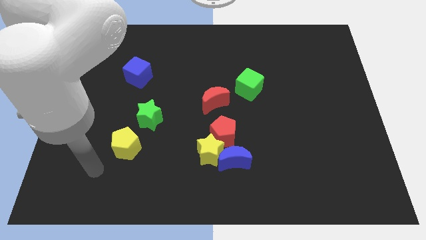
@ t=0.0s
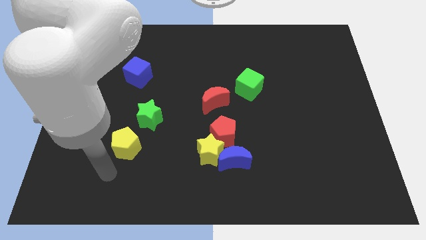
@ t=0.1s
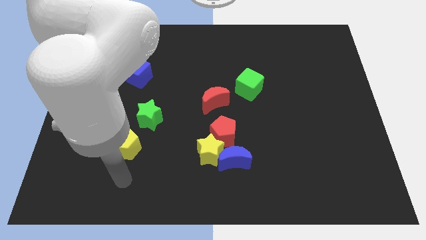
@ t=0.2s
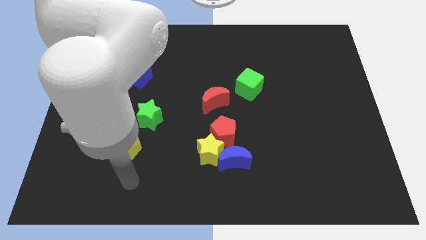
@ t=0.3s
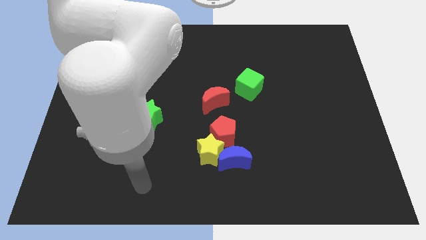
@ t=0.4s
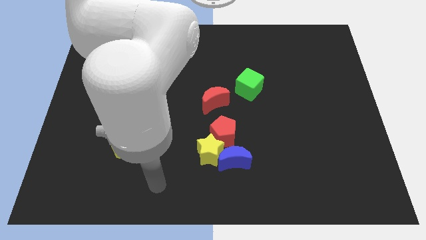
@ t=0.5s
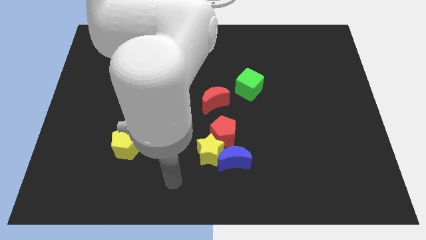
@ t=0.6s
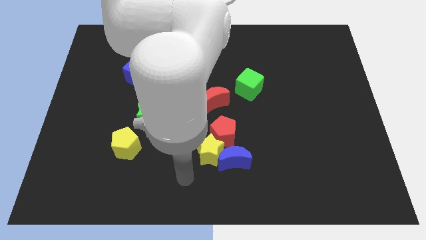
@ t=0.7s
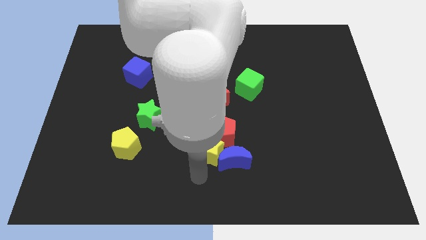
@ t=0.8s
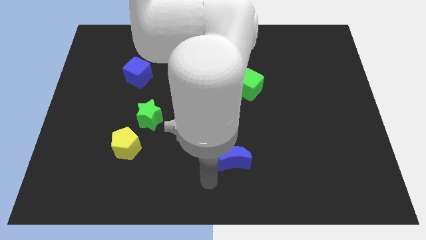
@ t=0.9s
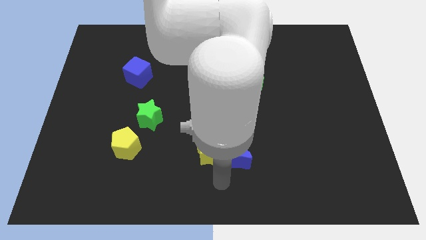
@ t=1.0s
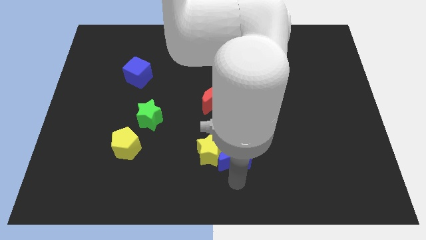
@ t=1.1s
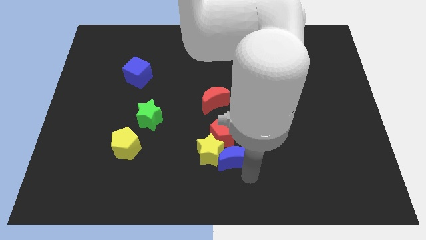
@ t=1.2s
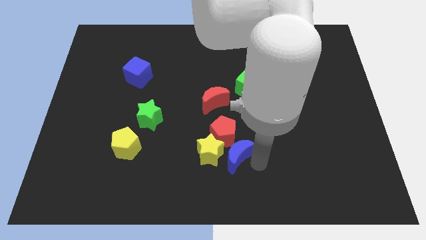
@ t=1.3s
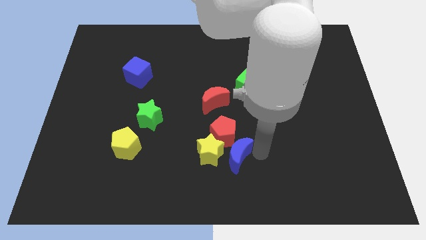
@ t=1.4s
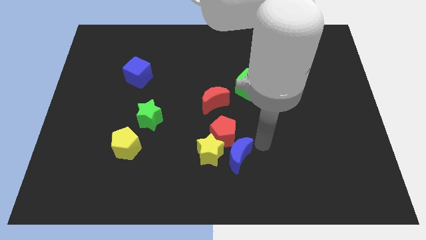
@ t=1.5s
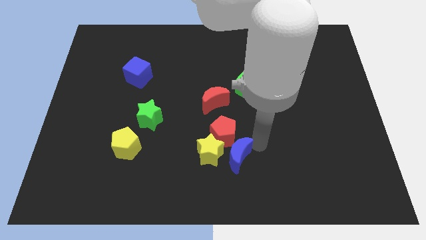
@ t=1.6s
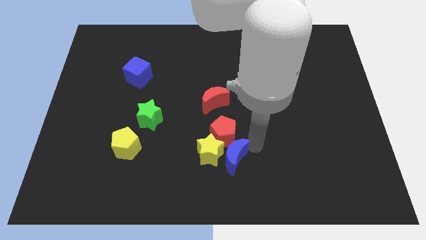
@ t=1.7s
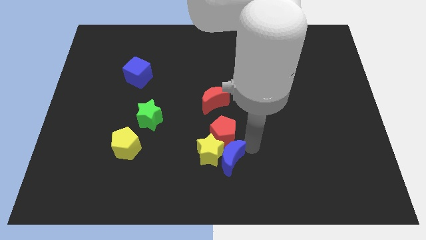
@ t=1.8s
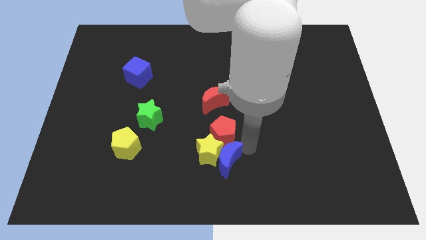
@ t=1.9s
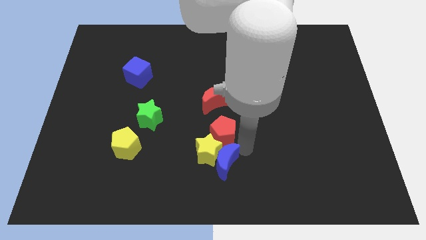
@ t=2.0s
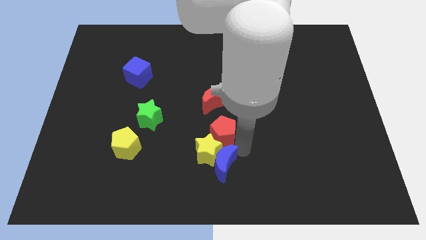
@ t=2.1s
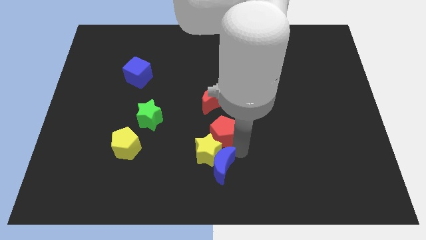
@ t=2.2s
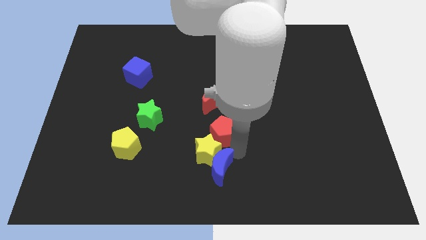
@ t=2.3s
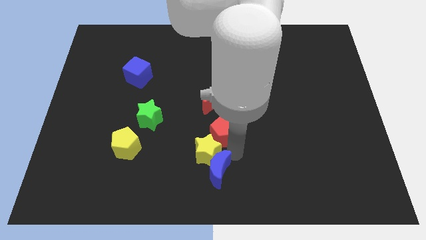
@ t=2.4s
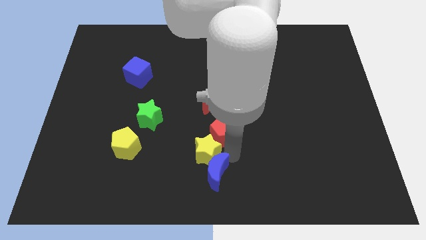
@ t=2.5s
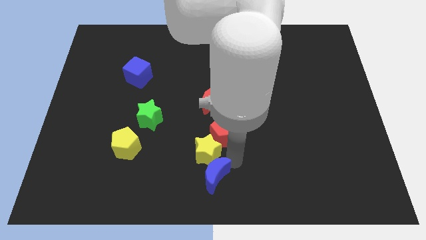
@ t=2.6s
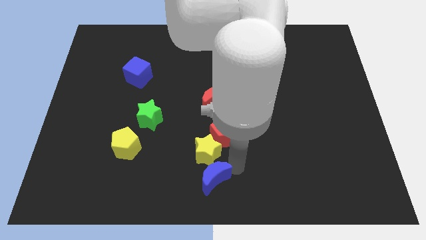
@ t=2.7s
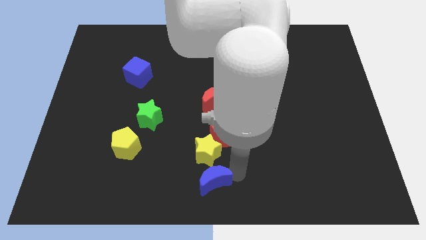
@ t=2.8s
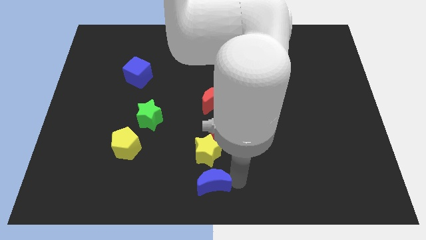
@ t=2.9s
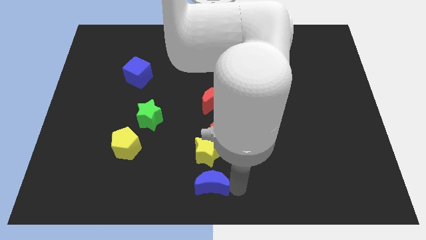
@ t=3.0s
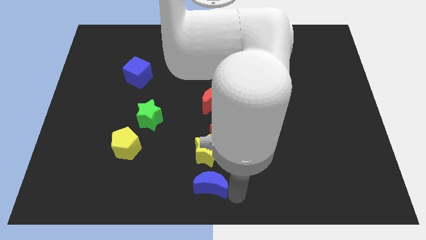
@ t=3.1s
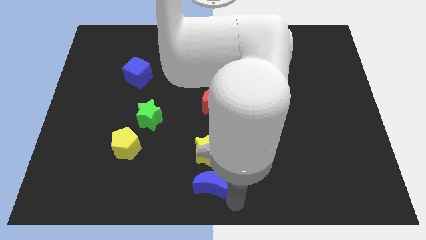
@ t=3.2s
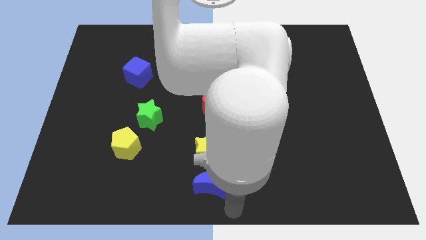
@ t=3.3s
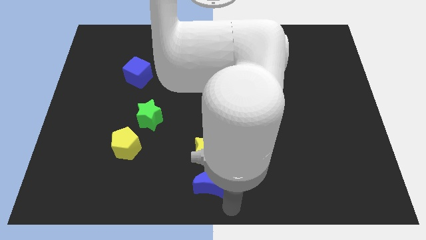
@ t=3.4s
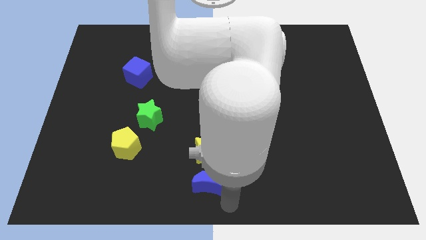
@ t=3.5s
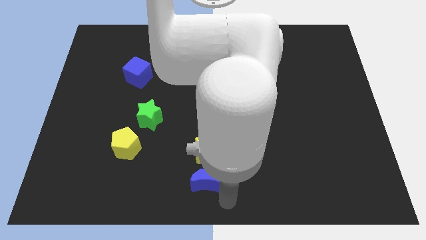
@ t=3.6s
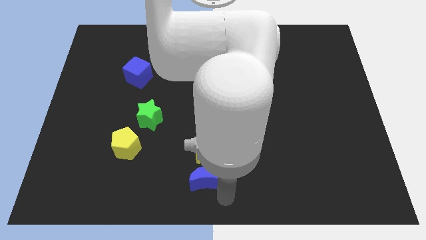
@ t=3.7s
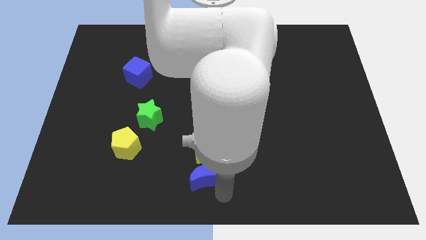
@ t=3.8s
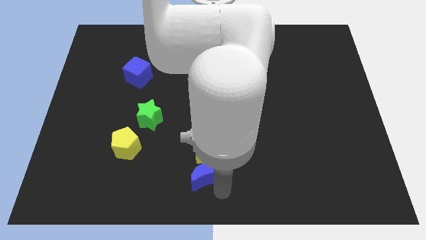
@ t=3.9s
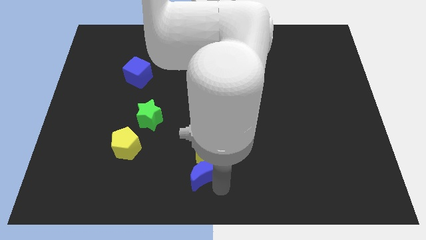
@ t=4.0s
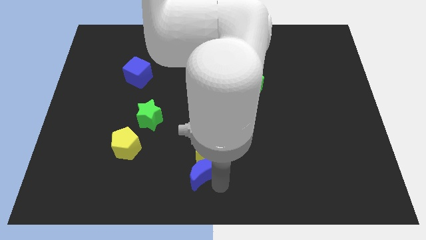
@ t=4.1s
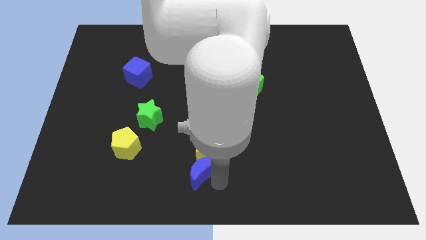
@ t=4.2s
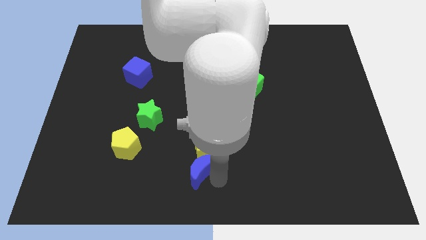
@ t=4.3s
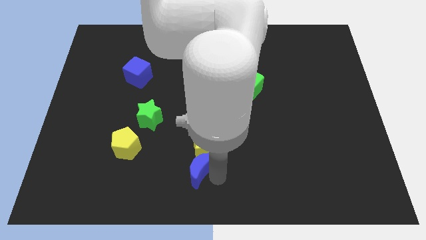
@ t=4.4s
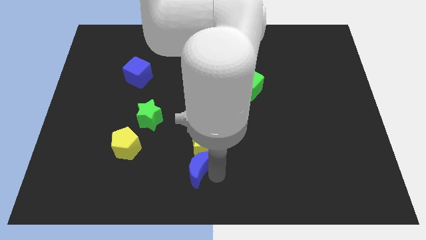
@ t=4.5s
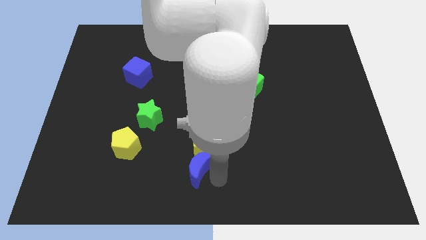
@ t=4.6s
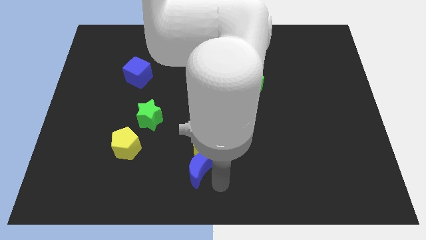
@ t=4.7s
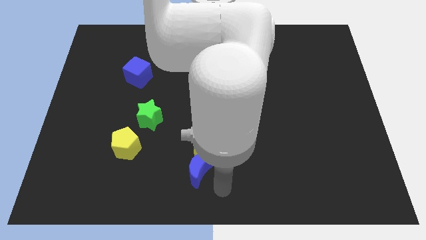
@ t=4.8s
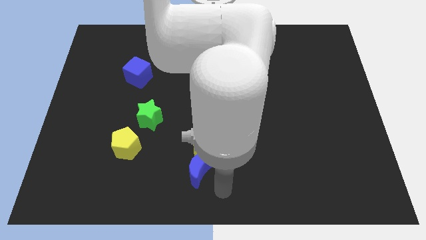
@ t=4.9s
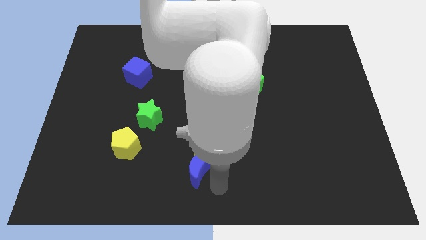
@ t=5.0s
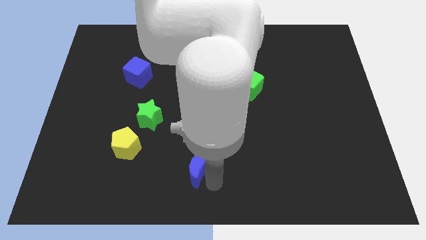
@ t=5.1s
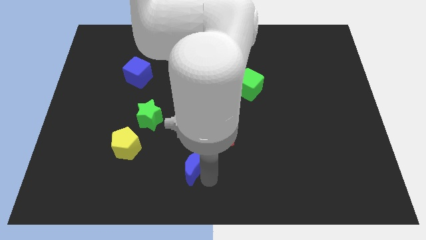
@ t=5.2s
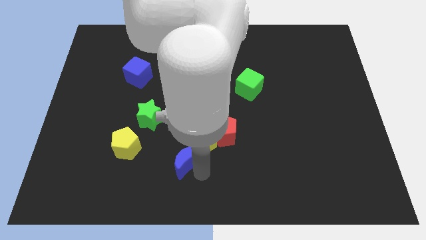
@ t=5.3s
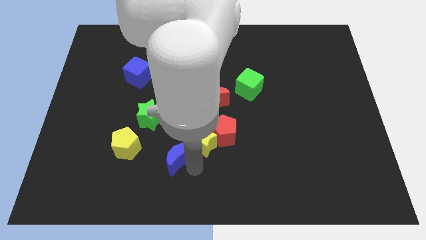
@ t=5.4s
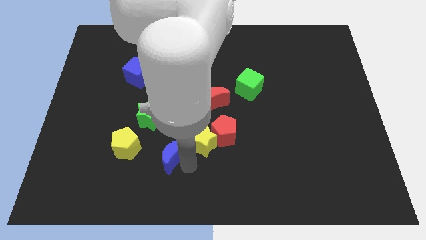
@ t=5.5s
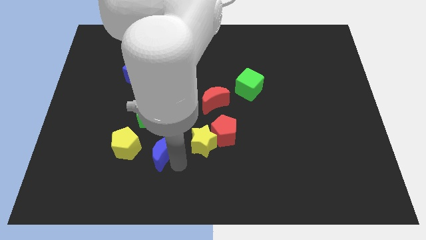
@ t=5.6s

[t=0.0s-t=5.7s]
slide the blue moon a little bit upwards and left

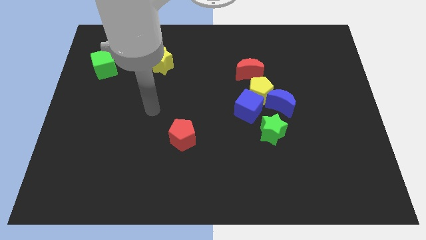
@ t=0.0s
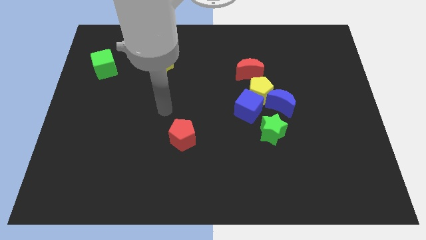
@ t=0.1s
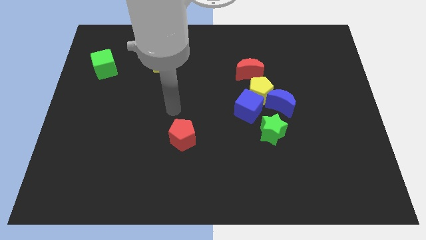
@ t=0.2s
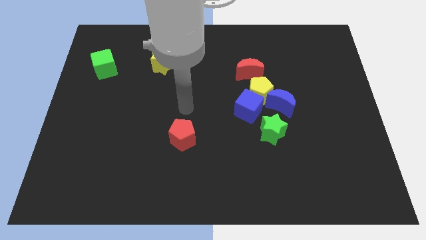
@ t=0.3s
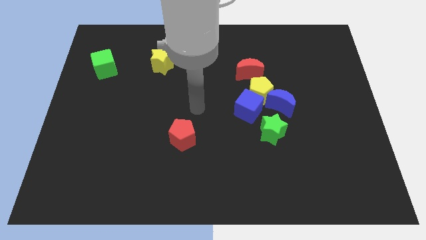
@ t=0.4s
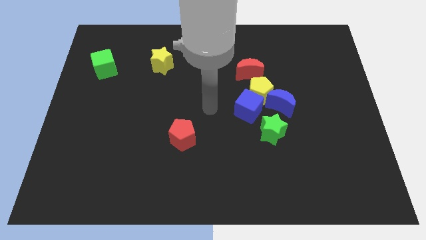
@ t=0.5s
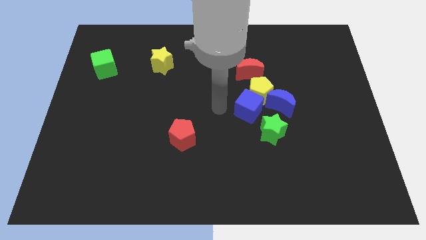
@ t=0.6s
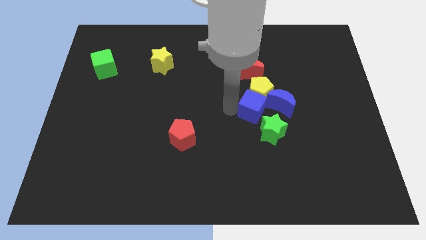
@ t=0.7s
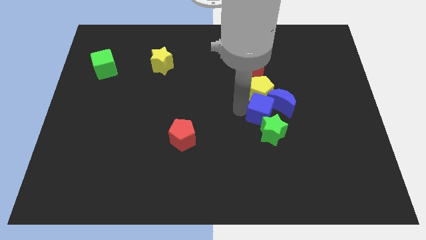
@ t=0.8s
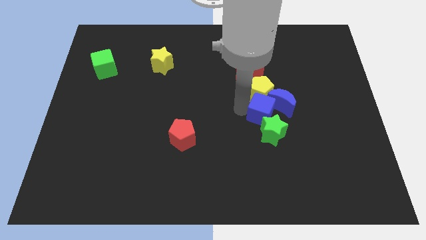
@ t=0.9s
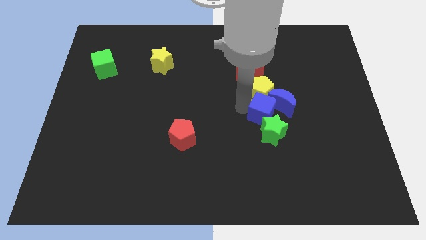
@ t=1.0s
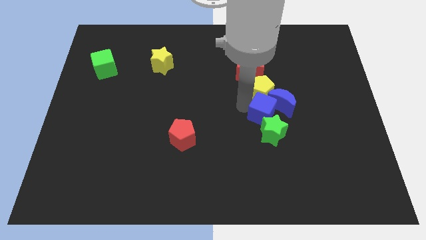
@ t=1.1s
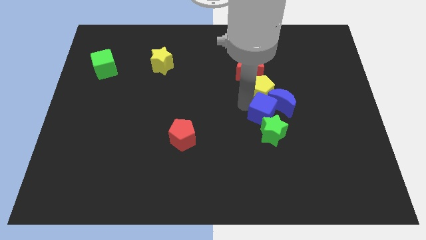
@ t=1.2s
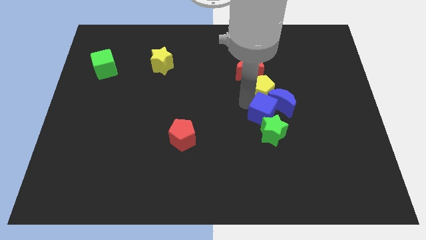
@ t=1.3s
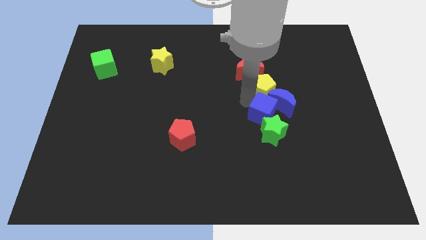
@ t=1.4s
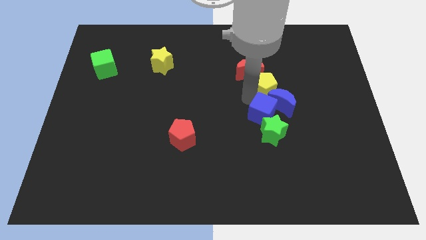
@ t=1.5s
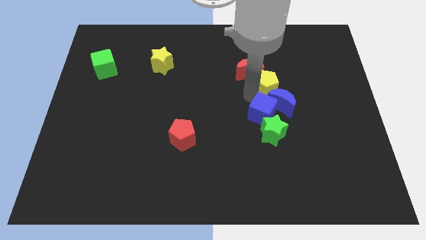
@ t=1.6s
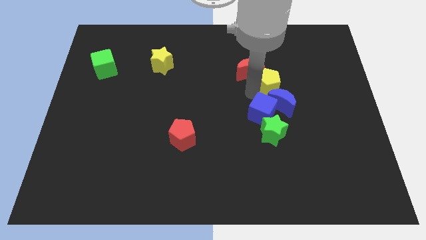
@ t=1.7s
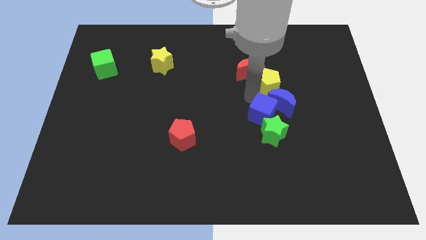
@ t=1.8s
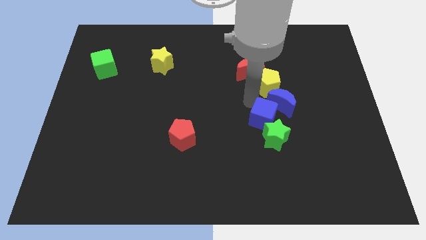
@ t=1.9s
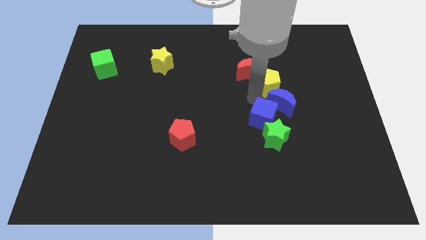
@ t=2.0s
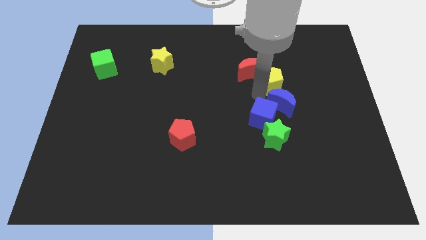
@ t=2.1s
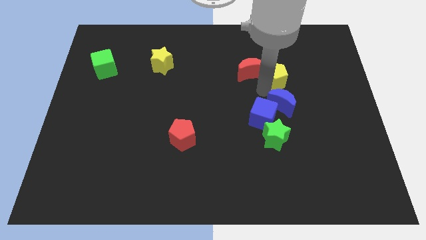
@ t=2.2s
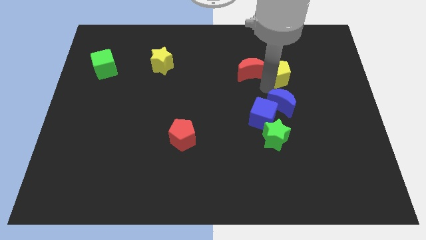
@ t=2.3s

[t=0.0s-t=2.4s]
slide the yellow pentagon up and to the right diagonally a bit
